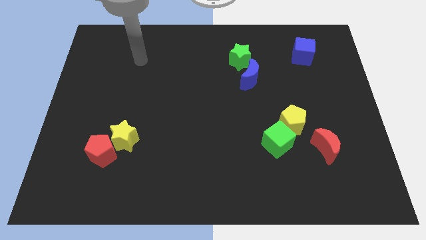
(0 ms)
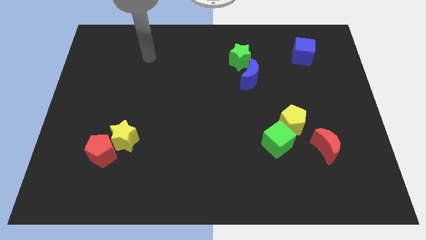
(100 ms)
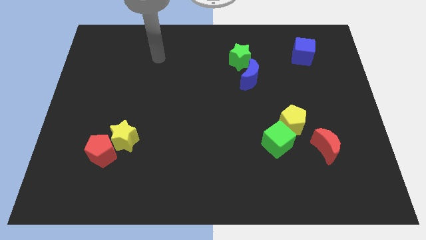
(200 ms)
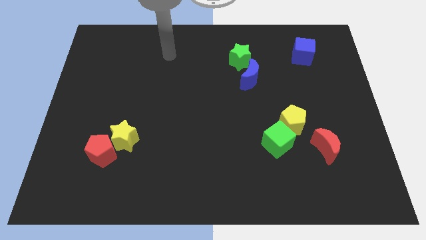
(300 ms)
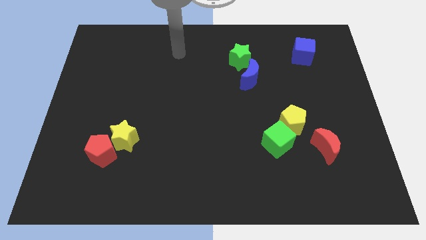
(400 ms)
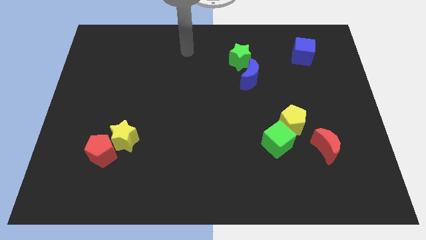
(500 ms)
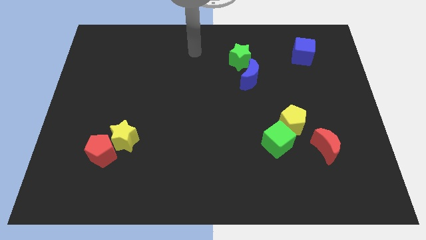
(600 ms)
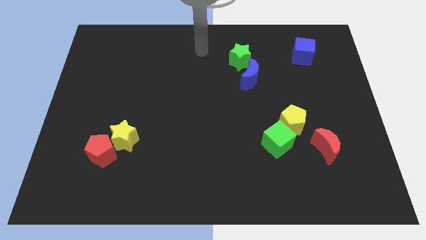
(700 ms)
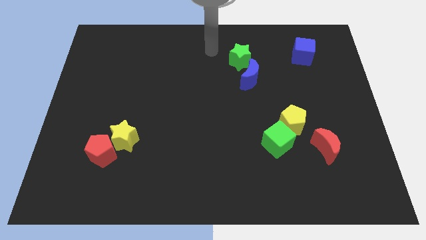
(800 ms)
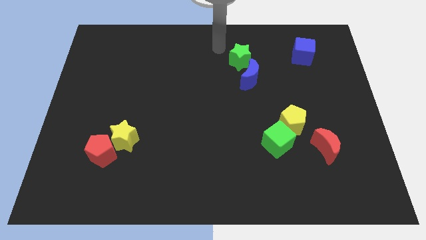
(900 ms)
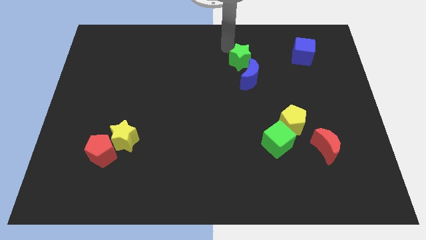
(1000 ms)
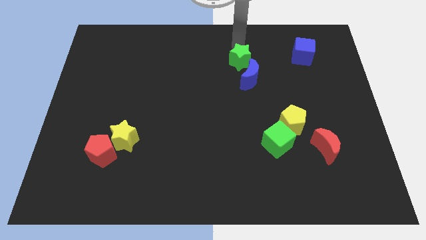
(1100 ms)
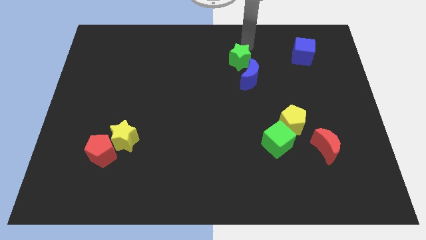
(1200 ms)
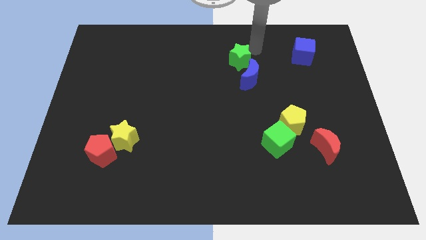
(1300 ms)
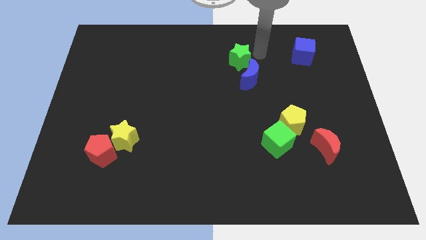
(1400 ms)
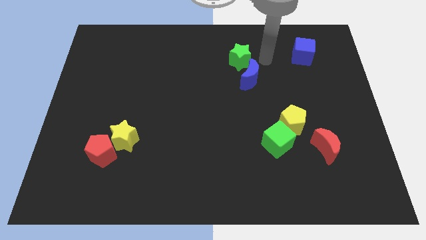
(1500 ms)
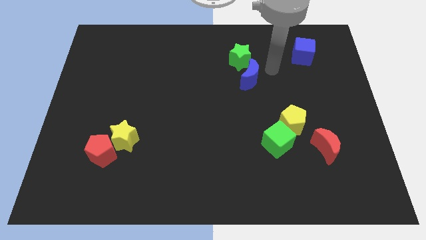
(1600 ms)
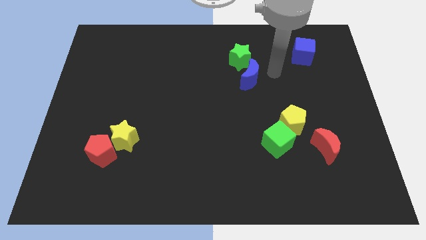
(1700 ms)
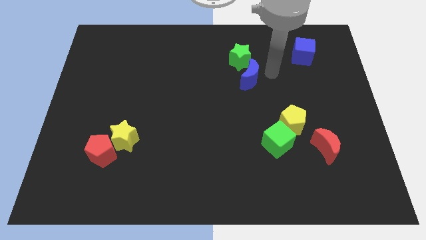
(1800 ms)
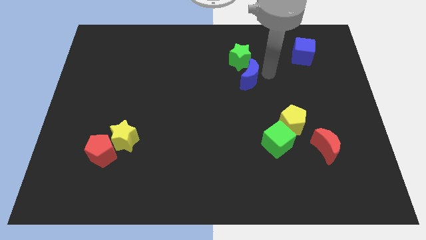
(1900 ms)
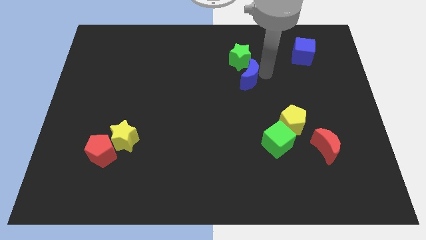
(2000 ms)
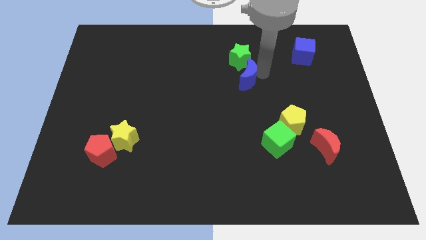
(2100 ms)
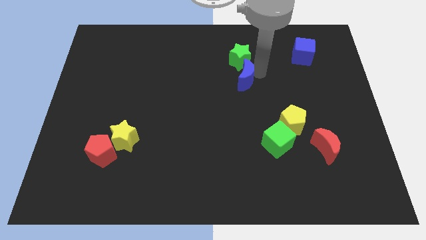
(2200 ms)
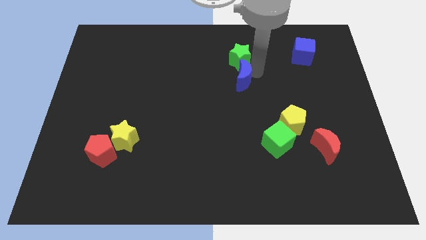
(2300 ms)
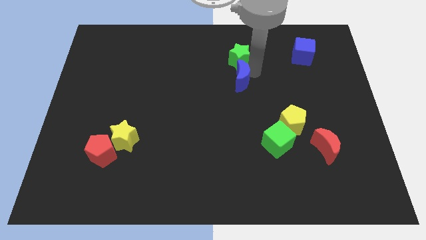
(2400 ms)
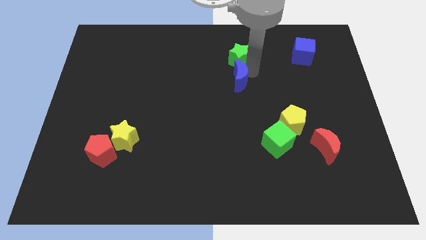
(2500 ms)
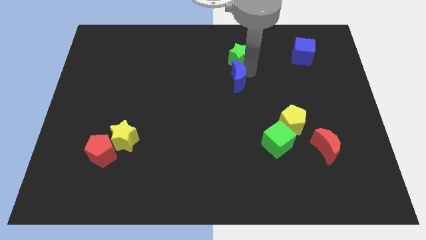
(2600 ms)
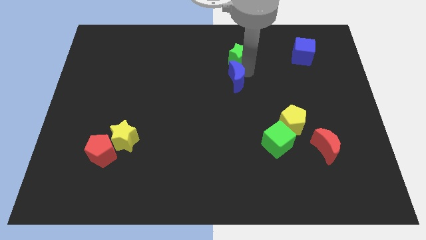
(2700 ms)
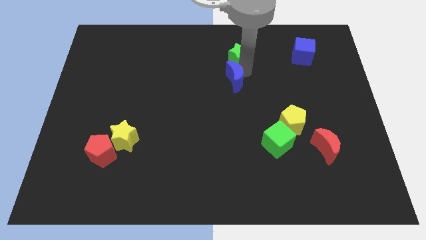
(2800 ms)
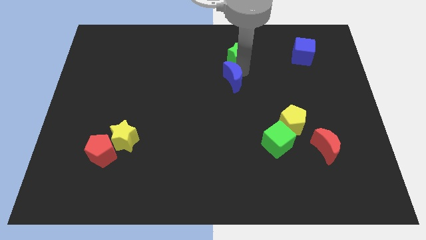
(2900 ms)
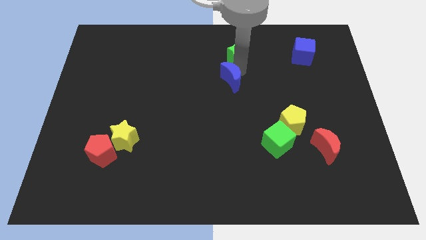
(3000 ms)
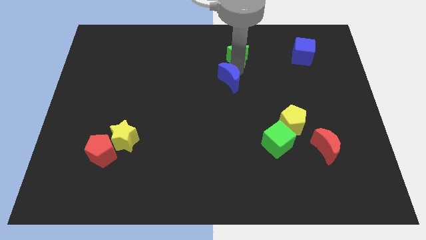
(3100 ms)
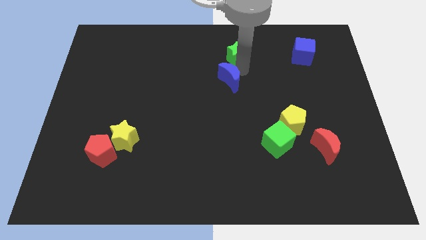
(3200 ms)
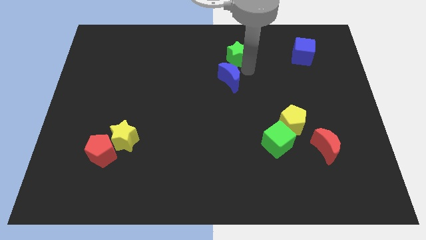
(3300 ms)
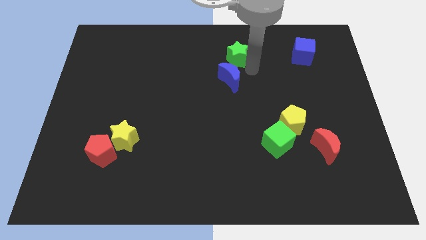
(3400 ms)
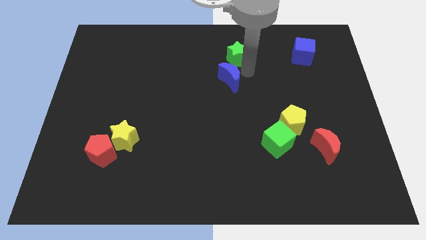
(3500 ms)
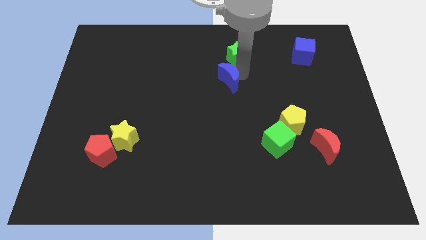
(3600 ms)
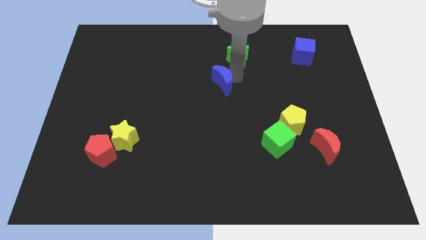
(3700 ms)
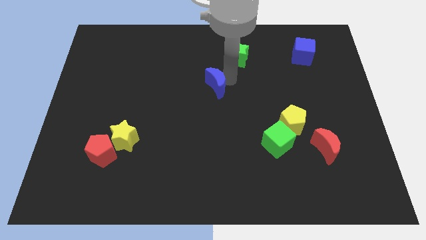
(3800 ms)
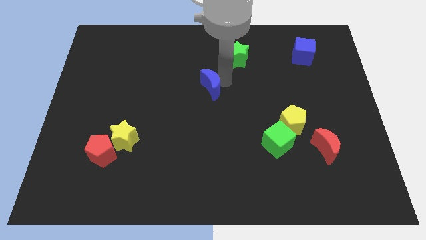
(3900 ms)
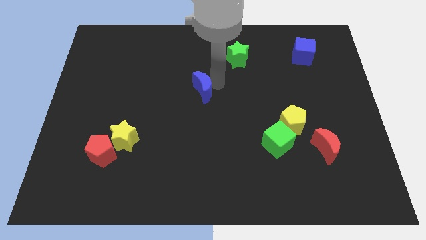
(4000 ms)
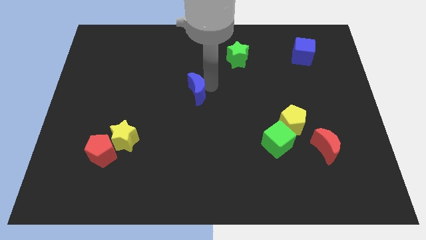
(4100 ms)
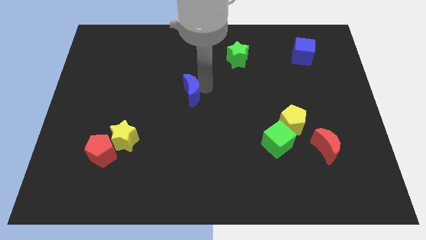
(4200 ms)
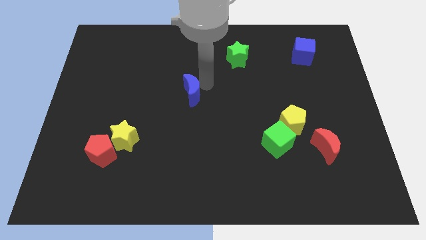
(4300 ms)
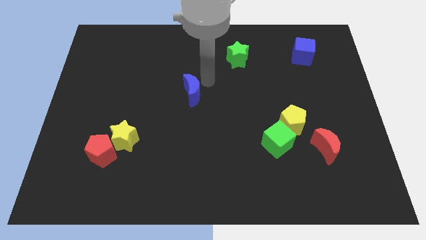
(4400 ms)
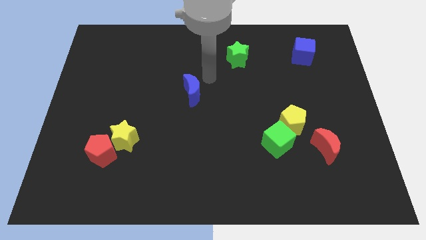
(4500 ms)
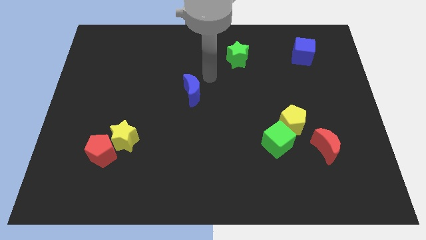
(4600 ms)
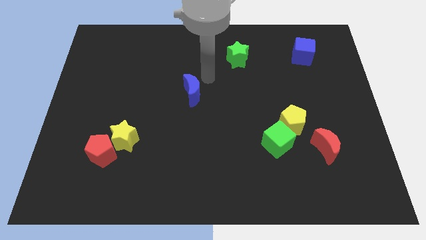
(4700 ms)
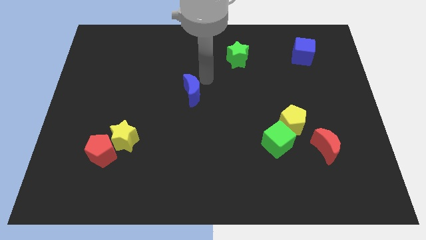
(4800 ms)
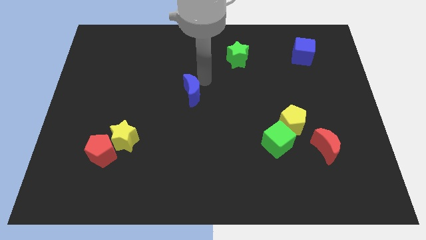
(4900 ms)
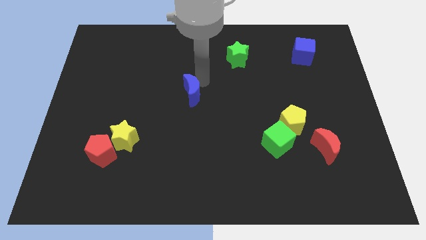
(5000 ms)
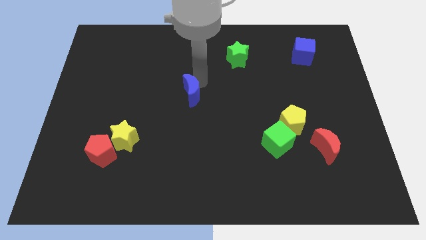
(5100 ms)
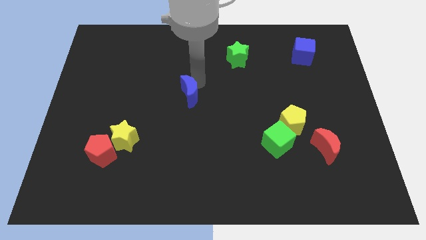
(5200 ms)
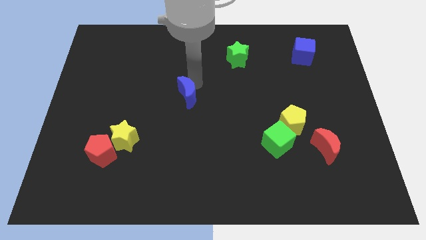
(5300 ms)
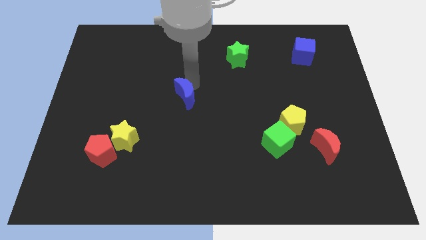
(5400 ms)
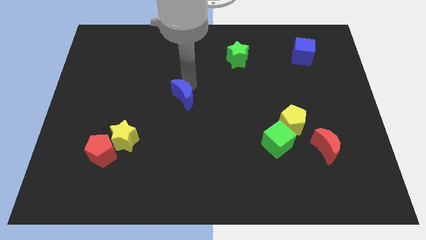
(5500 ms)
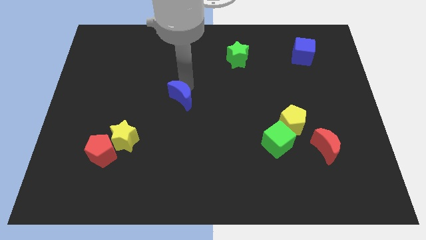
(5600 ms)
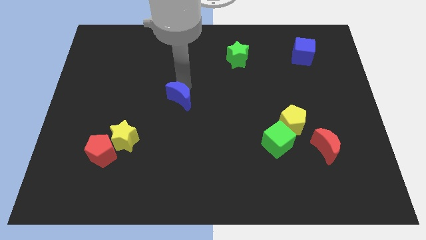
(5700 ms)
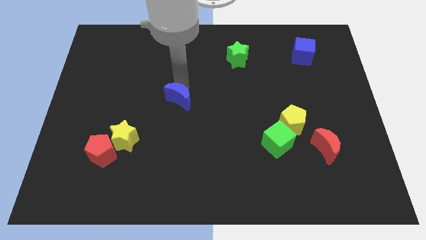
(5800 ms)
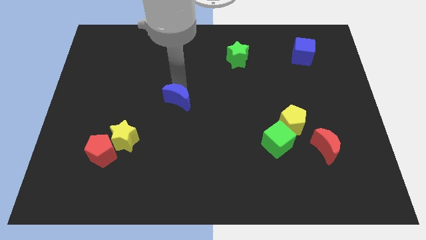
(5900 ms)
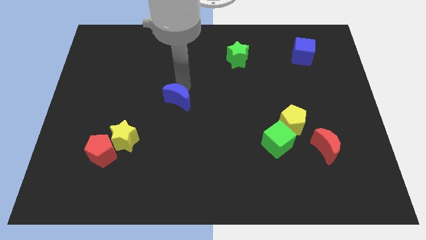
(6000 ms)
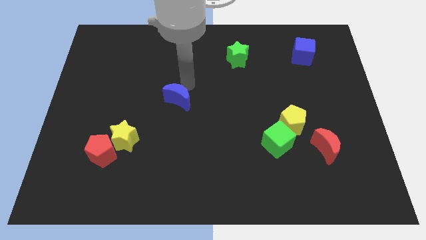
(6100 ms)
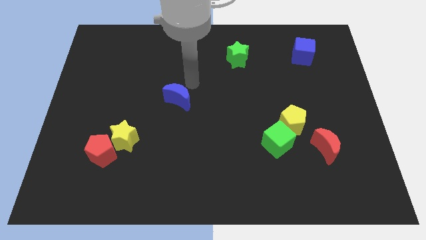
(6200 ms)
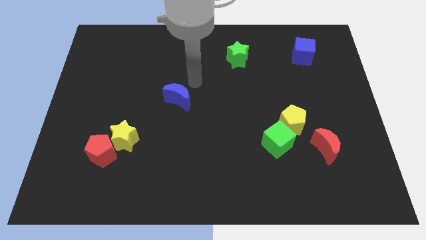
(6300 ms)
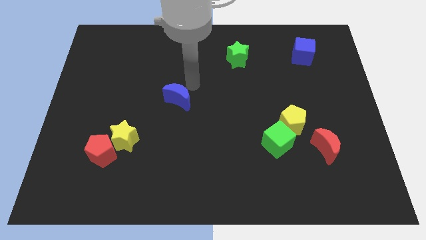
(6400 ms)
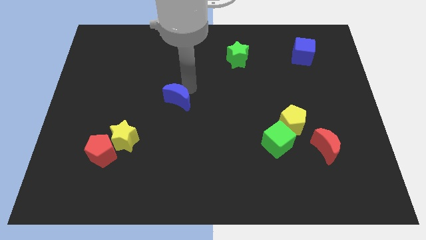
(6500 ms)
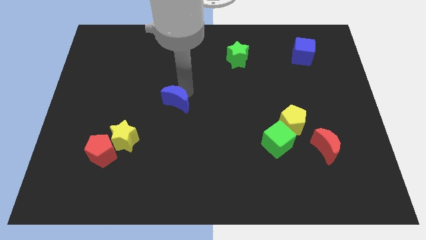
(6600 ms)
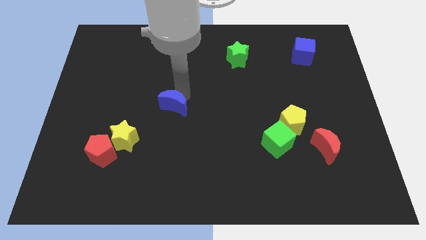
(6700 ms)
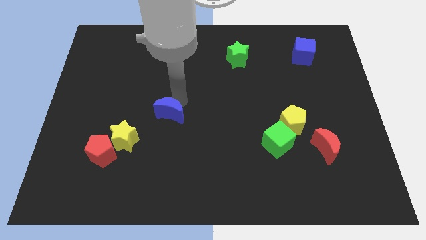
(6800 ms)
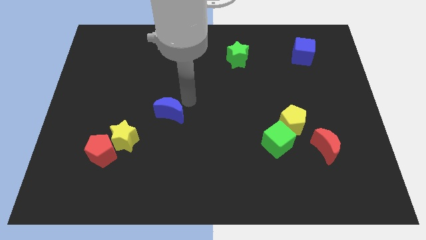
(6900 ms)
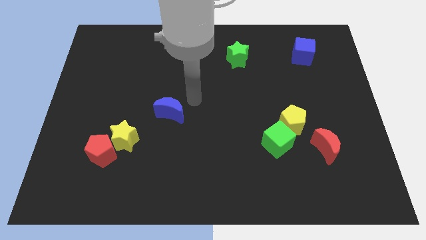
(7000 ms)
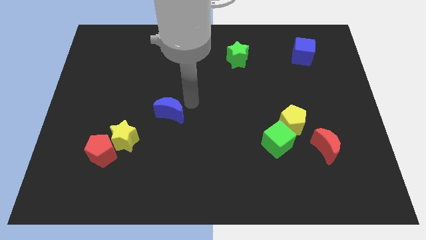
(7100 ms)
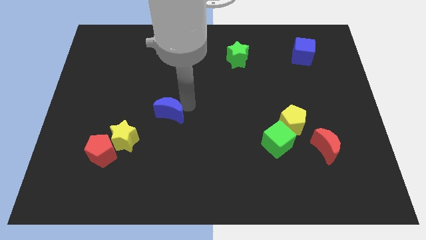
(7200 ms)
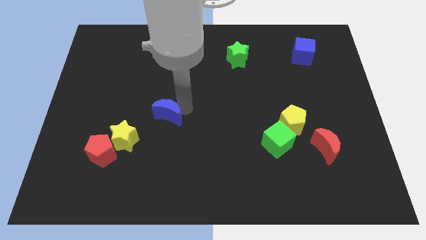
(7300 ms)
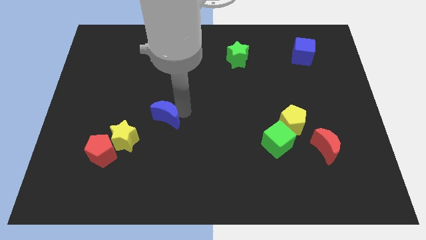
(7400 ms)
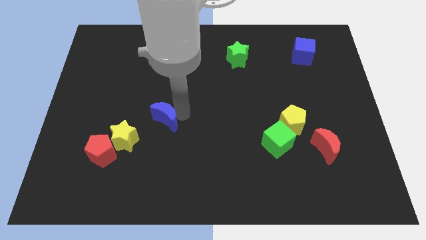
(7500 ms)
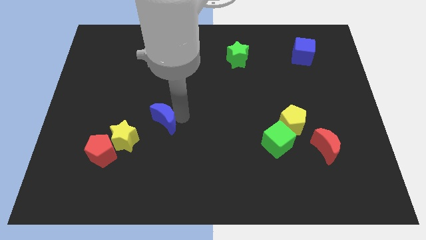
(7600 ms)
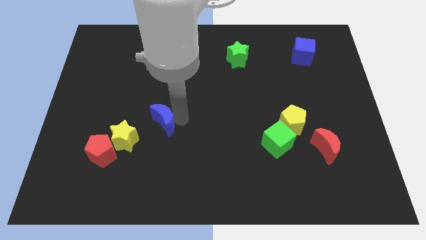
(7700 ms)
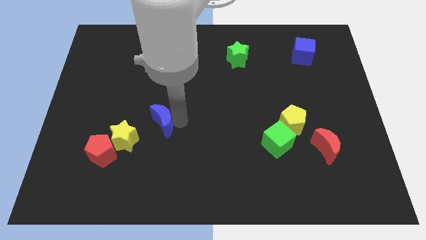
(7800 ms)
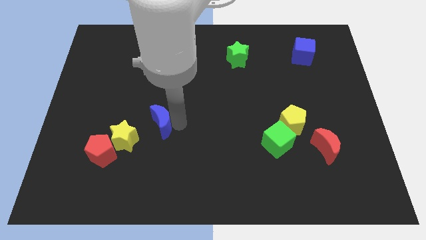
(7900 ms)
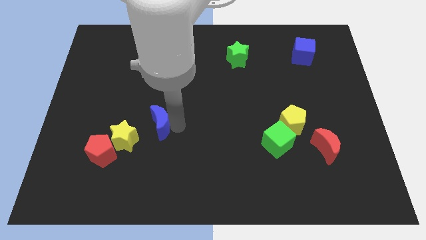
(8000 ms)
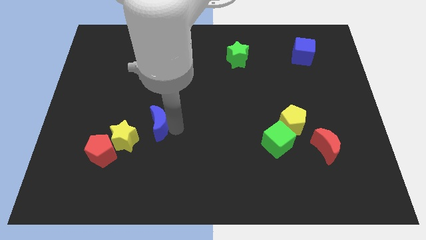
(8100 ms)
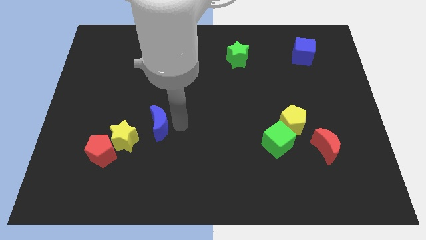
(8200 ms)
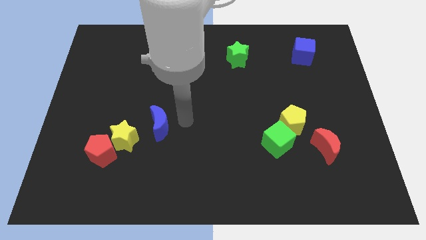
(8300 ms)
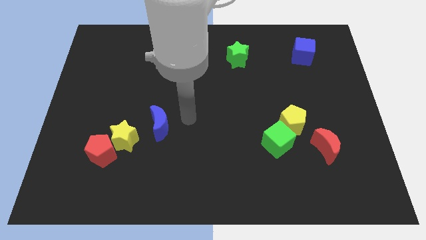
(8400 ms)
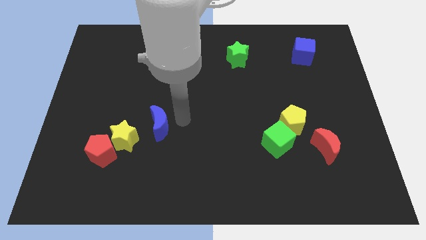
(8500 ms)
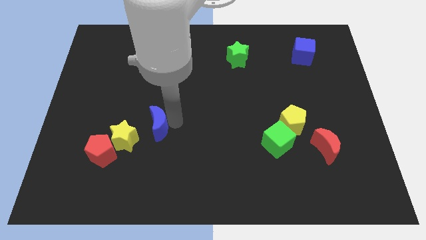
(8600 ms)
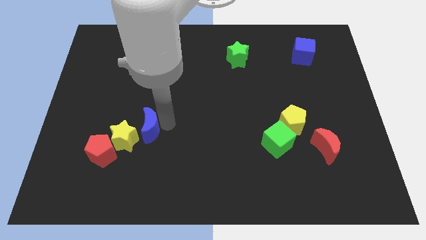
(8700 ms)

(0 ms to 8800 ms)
put the blue moon to the top right side of the red pentagon
